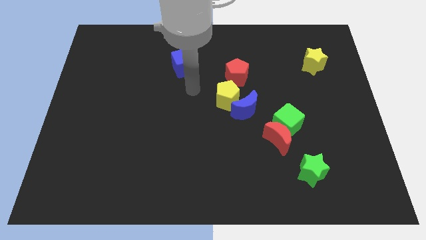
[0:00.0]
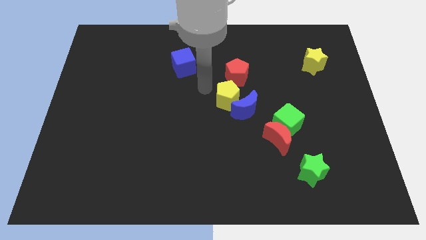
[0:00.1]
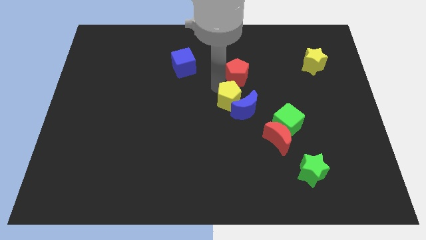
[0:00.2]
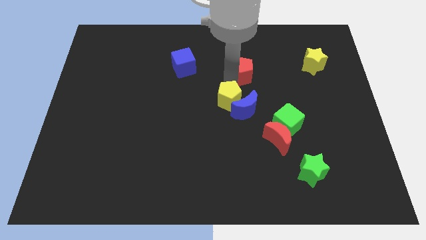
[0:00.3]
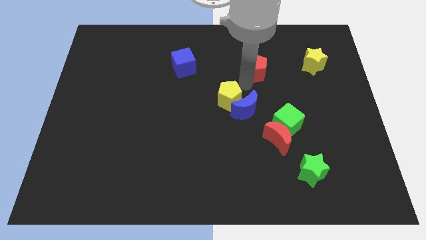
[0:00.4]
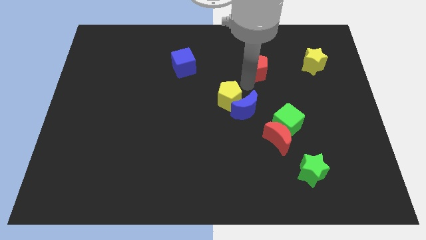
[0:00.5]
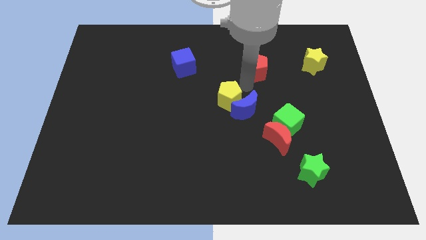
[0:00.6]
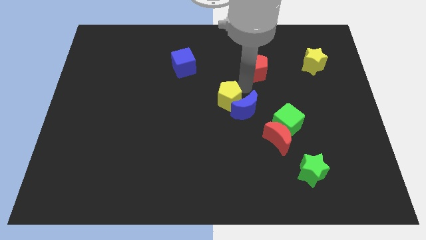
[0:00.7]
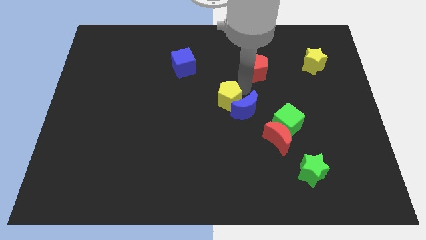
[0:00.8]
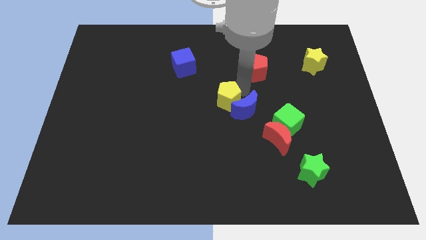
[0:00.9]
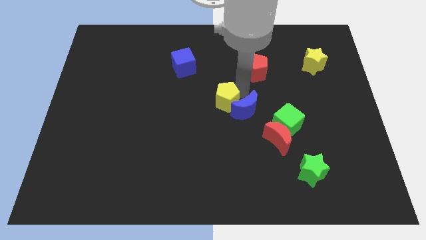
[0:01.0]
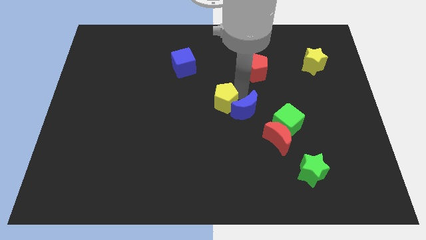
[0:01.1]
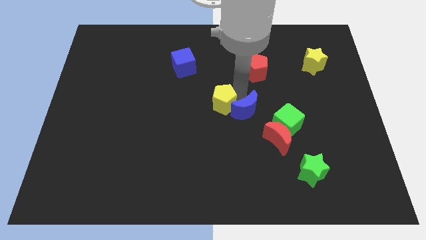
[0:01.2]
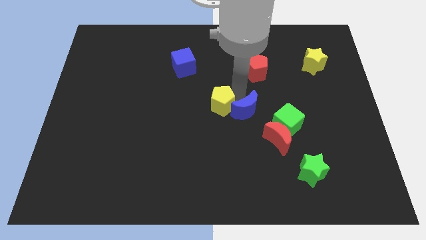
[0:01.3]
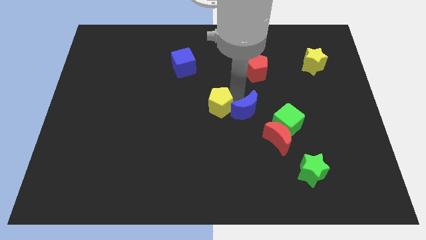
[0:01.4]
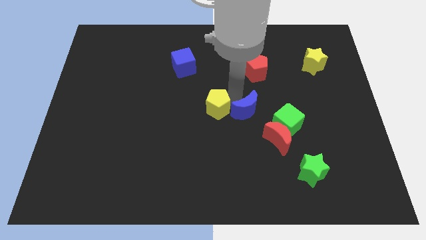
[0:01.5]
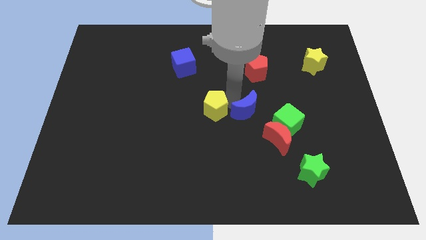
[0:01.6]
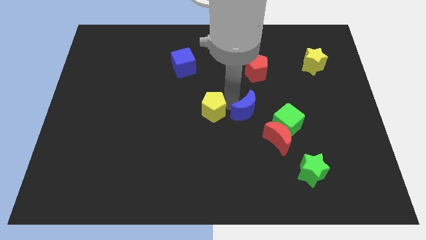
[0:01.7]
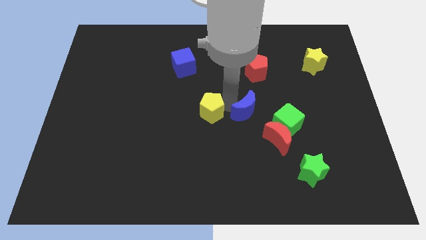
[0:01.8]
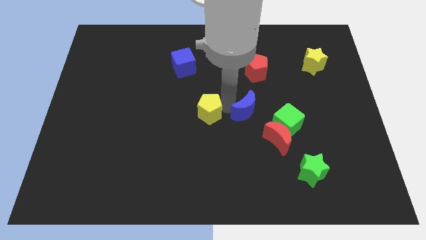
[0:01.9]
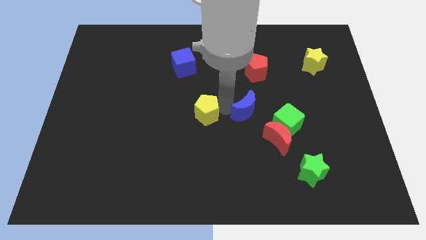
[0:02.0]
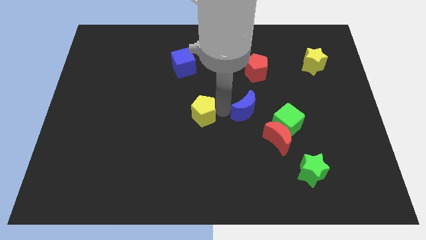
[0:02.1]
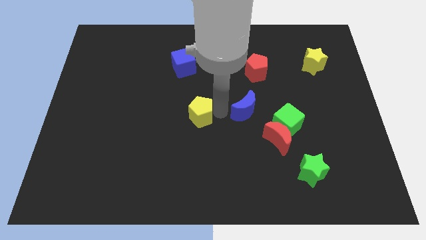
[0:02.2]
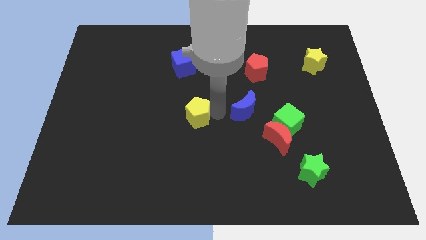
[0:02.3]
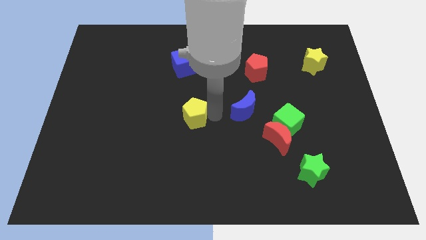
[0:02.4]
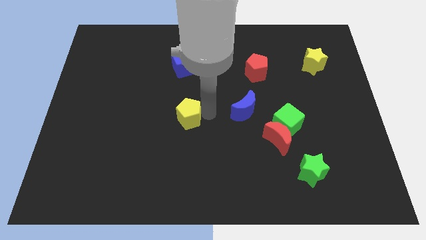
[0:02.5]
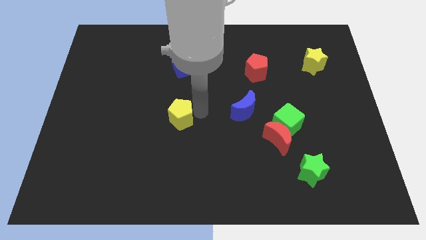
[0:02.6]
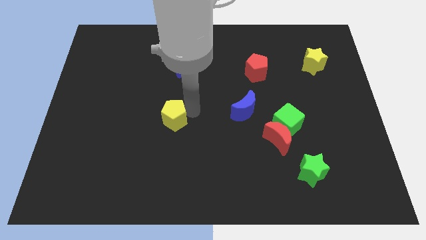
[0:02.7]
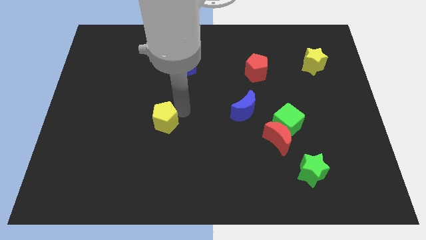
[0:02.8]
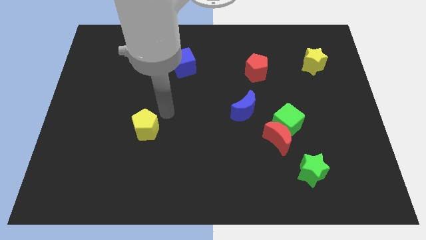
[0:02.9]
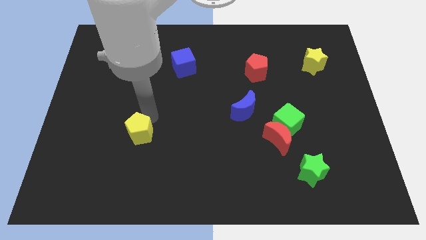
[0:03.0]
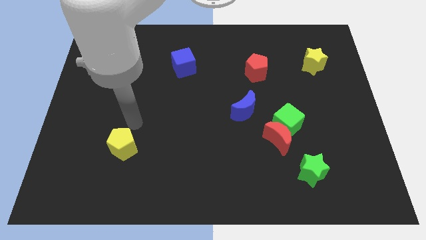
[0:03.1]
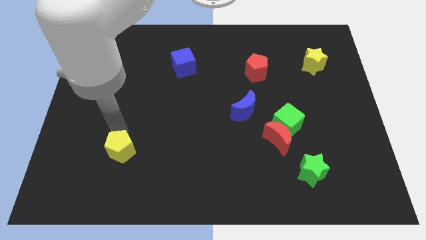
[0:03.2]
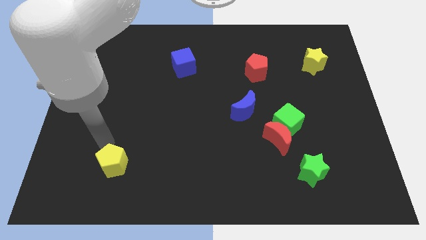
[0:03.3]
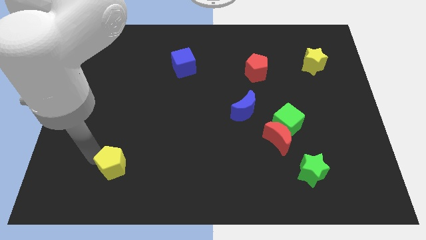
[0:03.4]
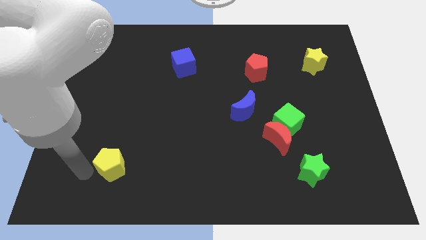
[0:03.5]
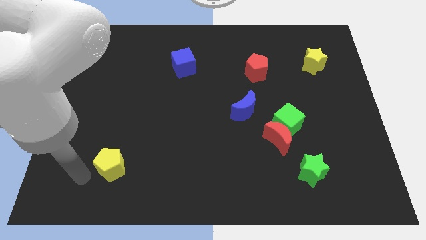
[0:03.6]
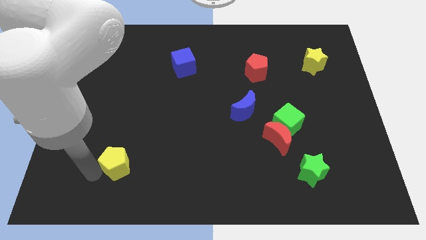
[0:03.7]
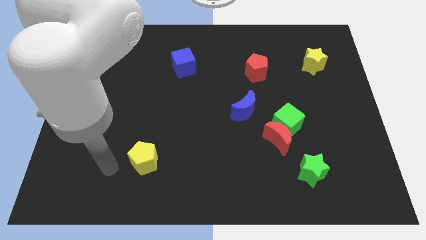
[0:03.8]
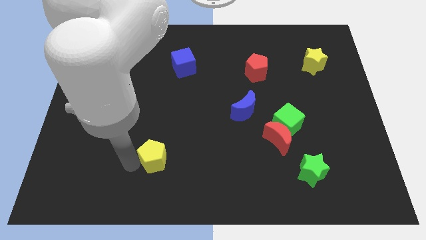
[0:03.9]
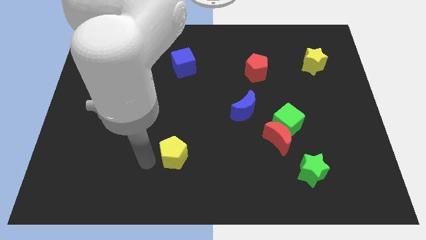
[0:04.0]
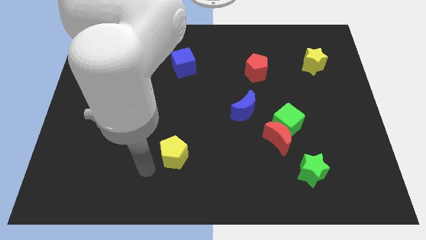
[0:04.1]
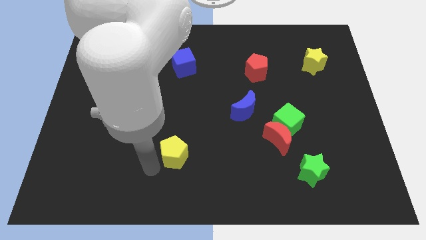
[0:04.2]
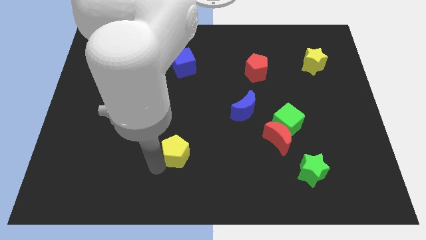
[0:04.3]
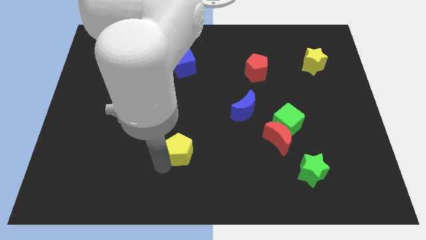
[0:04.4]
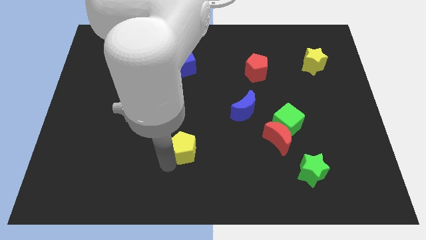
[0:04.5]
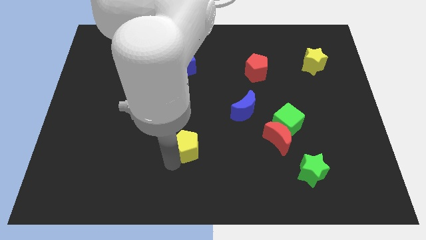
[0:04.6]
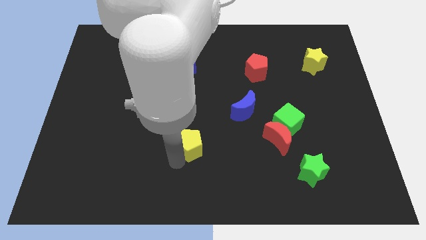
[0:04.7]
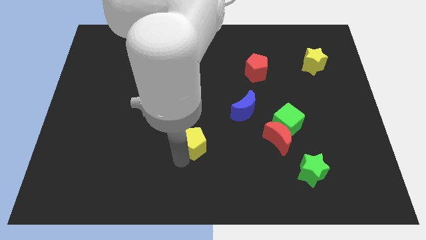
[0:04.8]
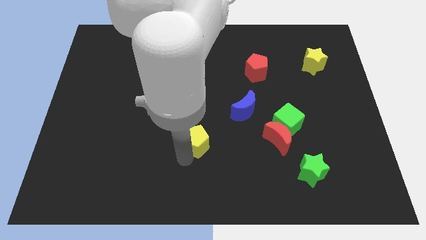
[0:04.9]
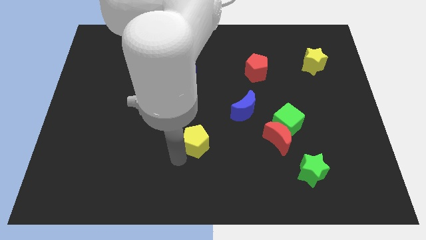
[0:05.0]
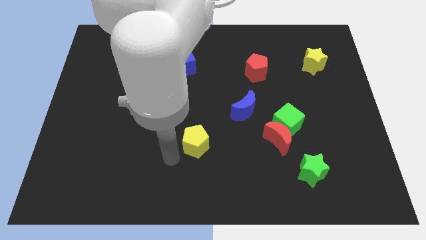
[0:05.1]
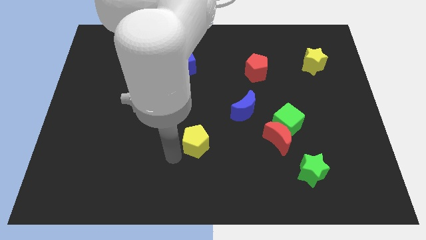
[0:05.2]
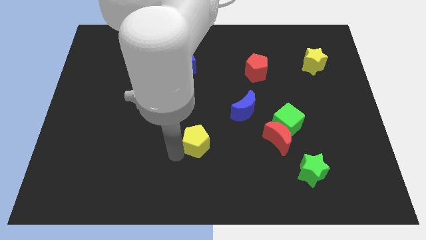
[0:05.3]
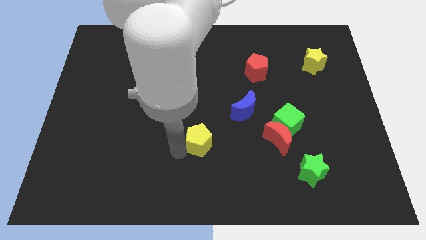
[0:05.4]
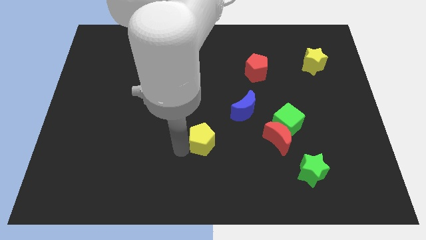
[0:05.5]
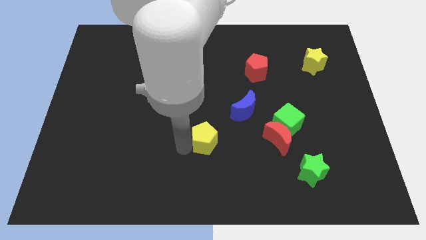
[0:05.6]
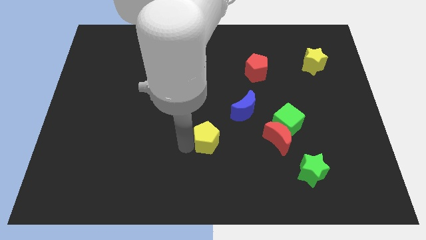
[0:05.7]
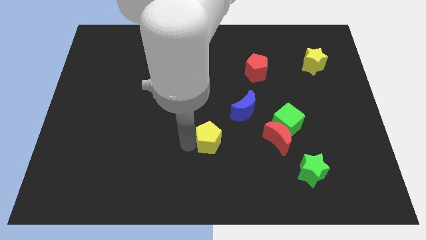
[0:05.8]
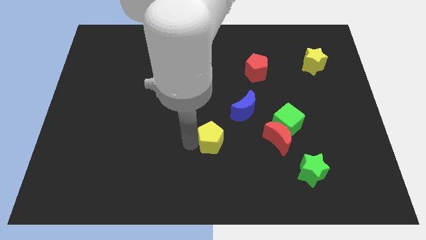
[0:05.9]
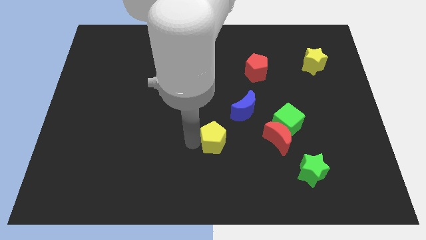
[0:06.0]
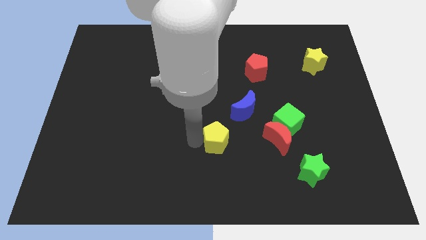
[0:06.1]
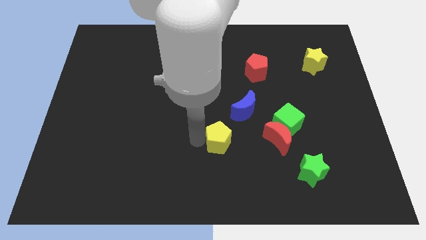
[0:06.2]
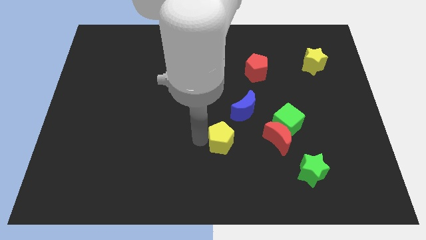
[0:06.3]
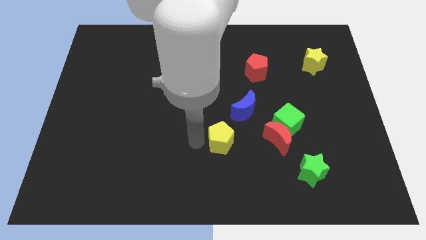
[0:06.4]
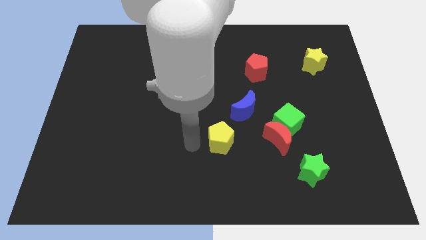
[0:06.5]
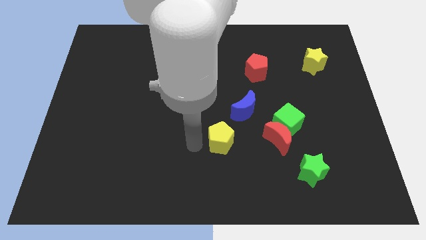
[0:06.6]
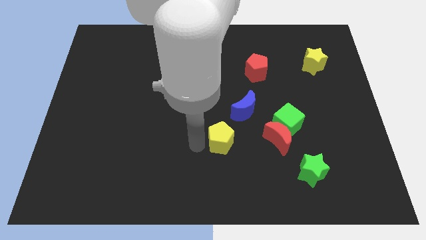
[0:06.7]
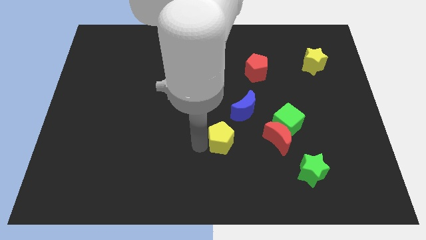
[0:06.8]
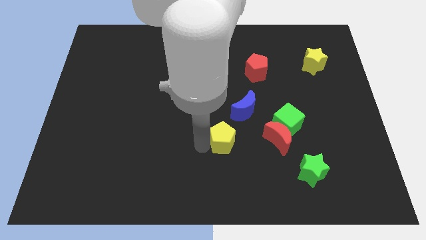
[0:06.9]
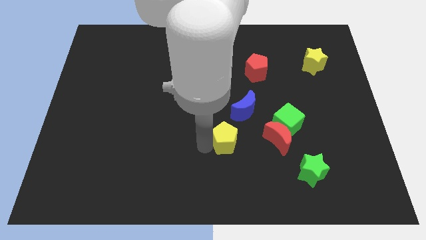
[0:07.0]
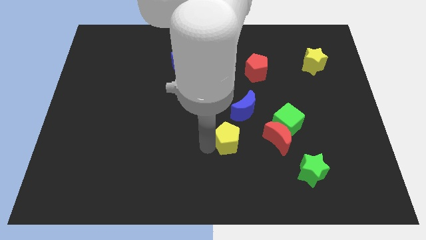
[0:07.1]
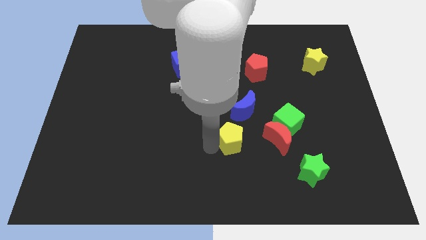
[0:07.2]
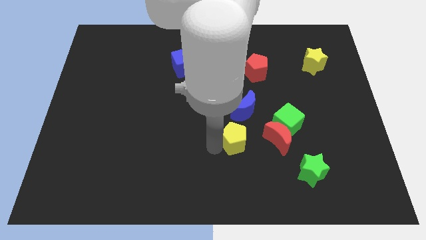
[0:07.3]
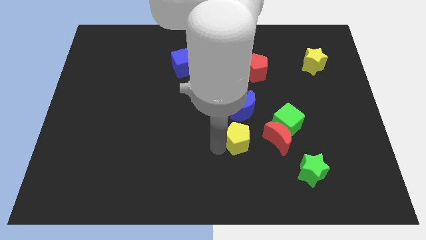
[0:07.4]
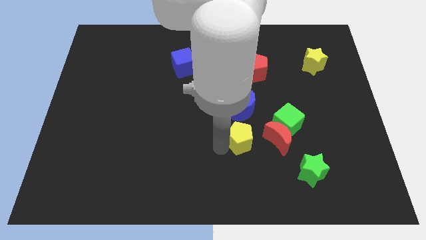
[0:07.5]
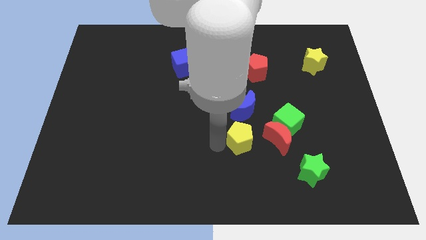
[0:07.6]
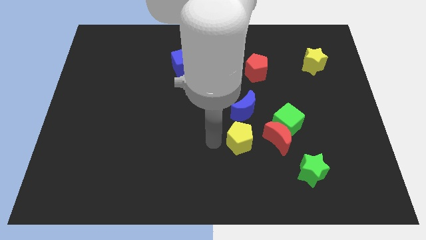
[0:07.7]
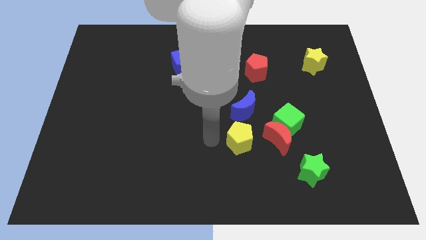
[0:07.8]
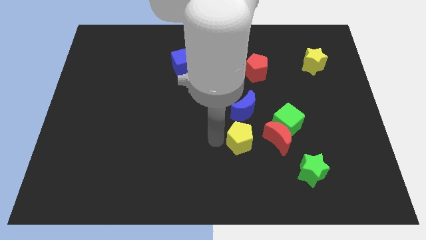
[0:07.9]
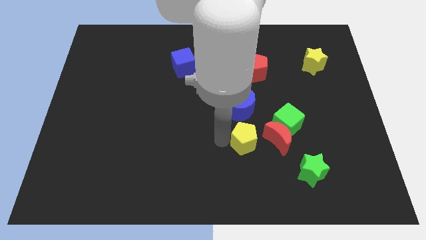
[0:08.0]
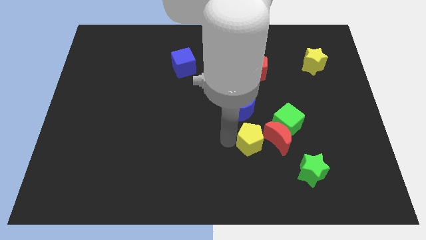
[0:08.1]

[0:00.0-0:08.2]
slide the yellow pentagon to the red moon
